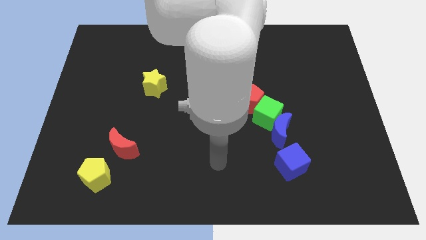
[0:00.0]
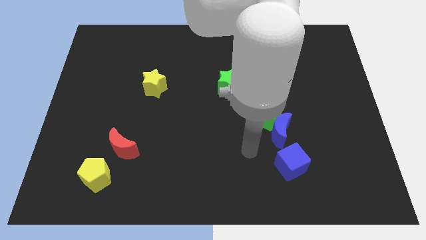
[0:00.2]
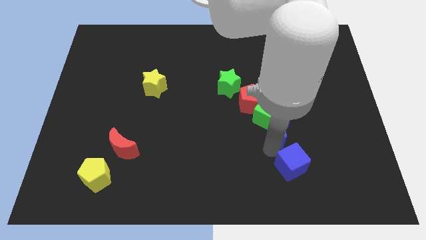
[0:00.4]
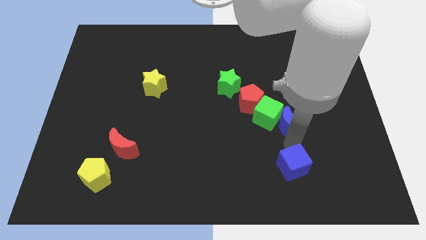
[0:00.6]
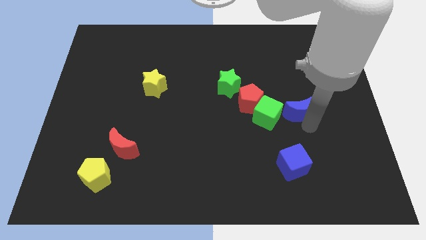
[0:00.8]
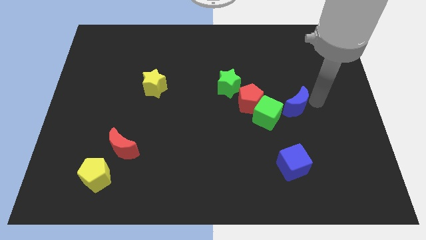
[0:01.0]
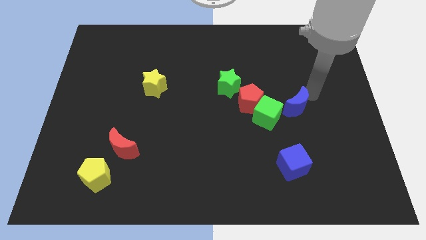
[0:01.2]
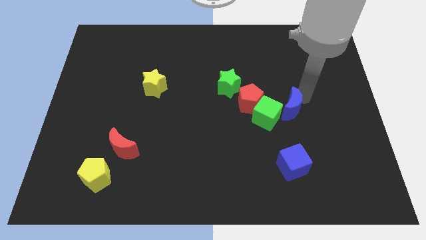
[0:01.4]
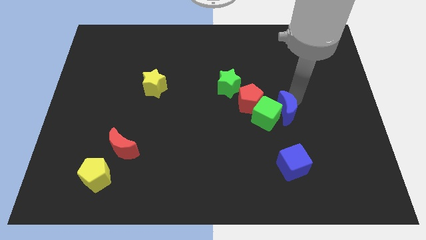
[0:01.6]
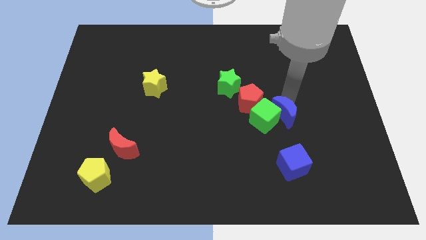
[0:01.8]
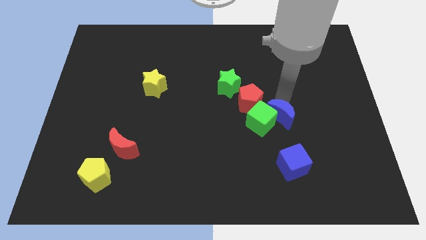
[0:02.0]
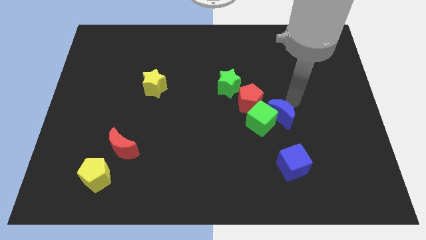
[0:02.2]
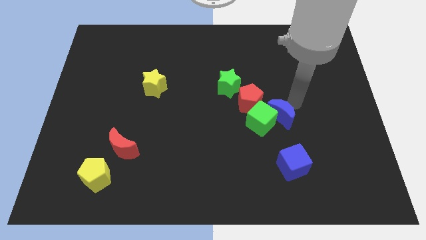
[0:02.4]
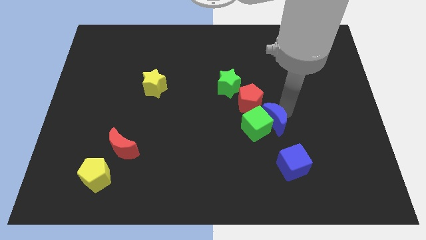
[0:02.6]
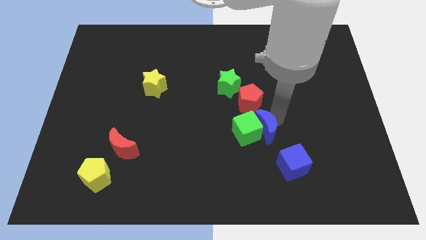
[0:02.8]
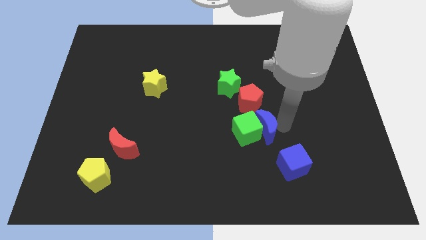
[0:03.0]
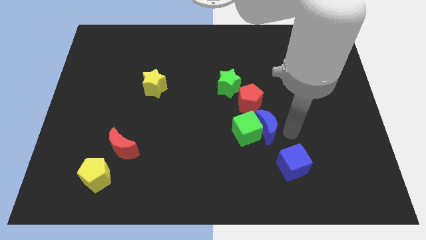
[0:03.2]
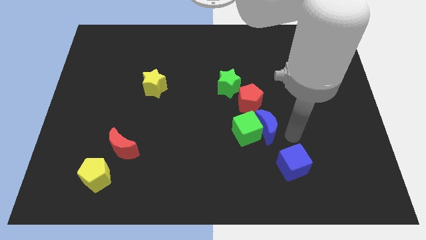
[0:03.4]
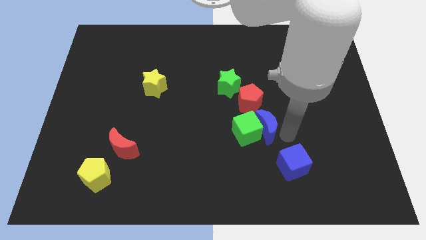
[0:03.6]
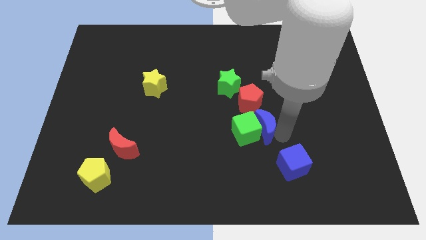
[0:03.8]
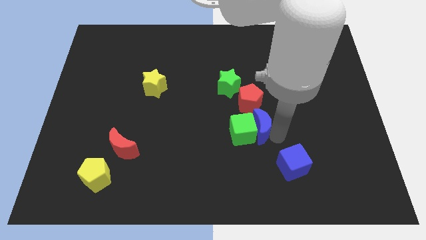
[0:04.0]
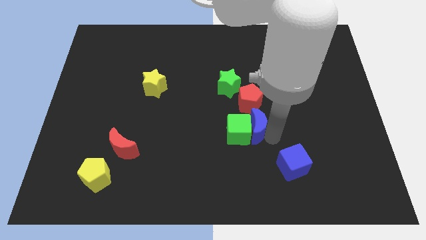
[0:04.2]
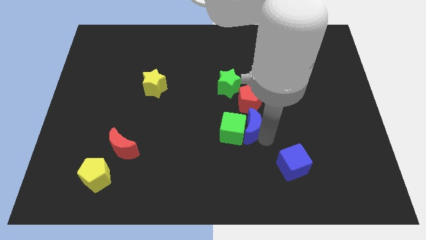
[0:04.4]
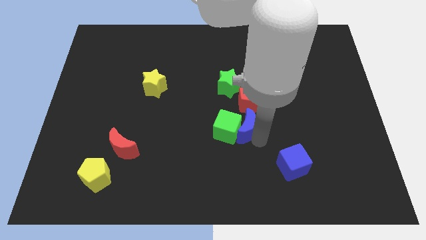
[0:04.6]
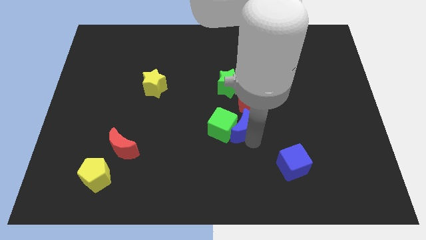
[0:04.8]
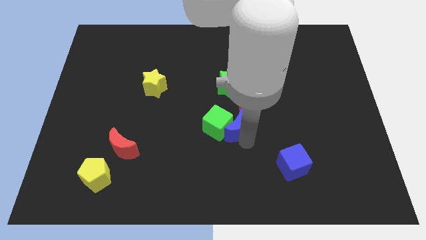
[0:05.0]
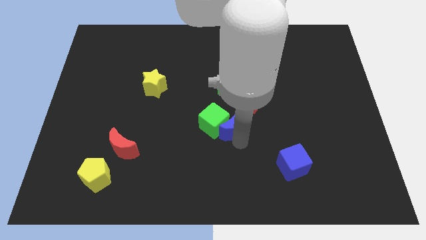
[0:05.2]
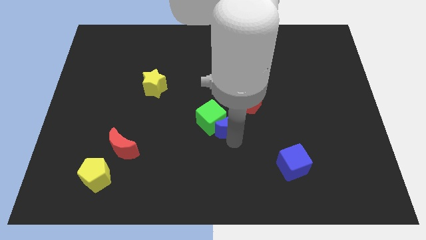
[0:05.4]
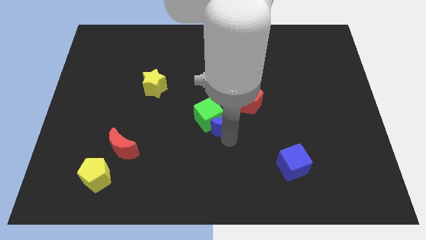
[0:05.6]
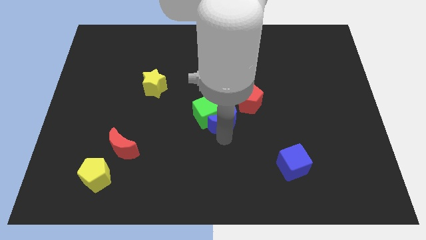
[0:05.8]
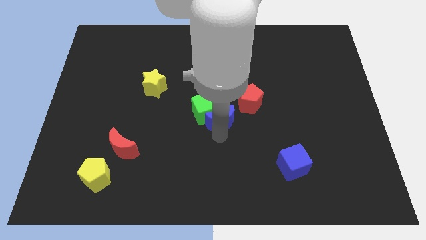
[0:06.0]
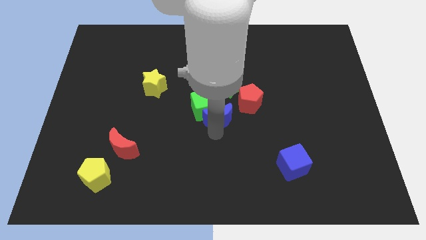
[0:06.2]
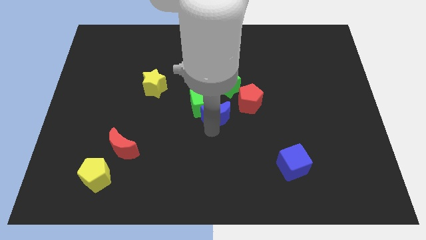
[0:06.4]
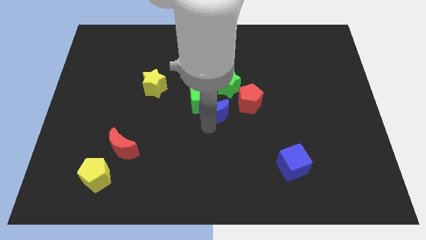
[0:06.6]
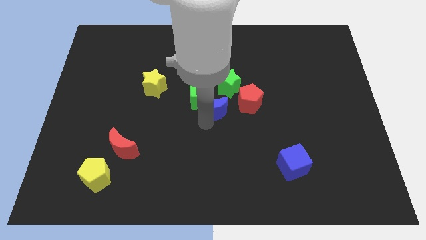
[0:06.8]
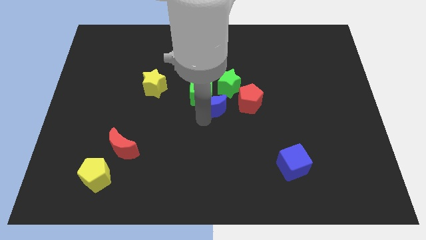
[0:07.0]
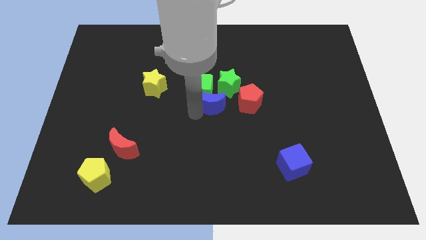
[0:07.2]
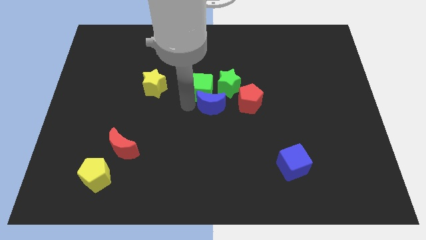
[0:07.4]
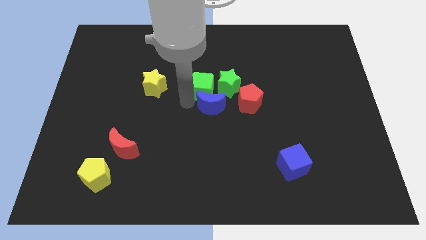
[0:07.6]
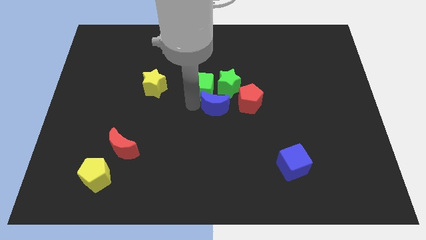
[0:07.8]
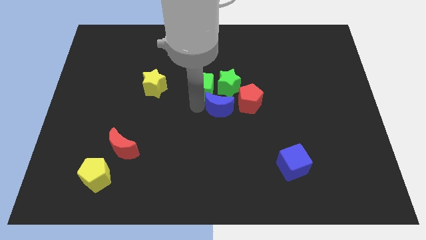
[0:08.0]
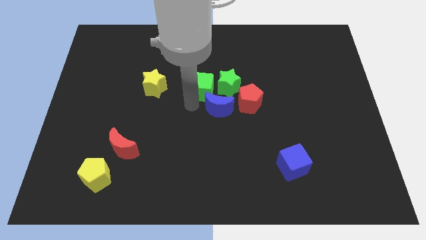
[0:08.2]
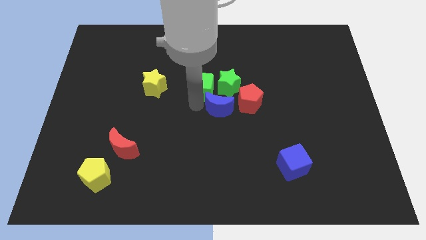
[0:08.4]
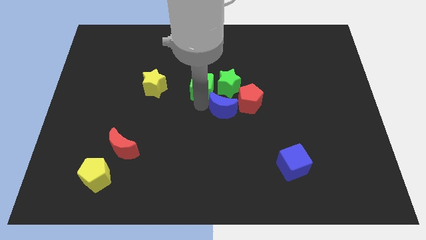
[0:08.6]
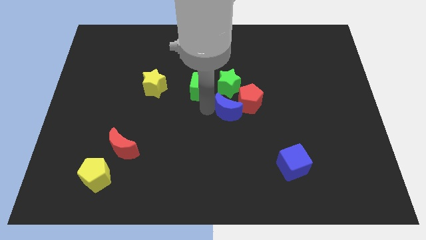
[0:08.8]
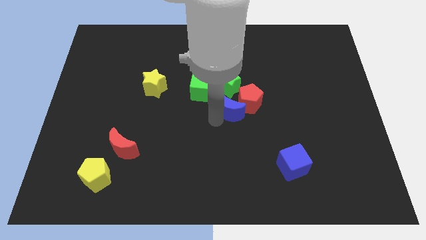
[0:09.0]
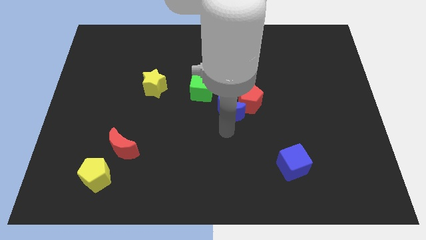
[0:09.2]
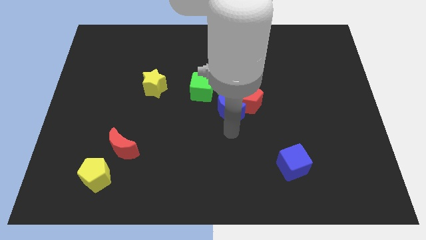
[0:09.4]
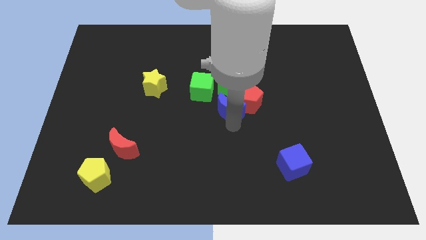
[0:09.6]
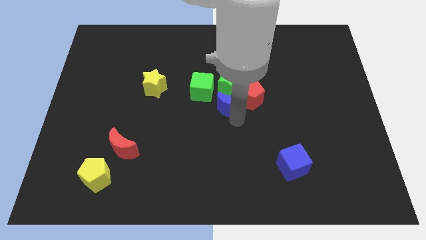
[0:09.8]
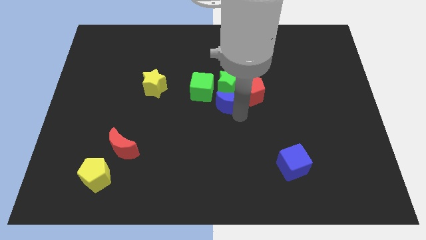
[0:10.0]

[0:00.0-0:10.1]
put the blue moon to the green star

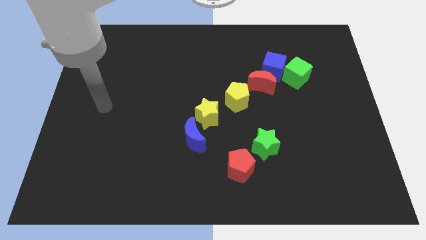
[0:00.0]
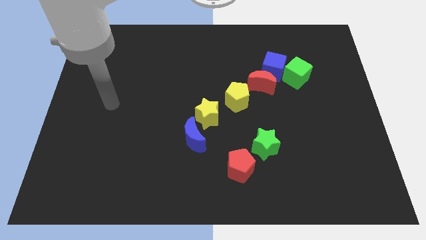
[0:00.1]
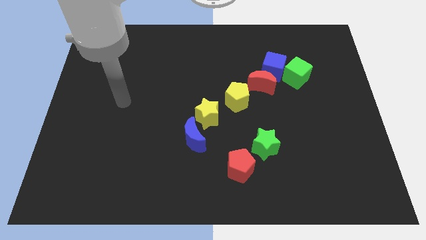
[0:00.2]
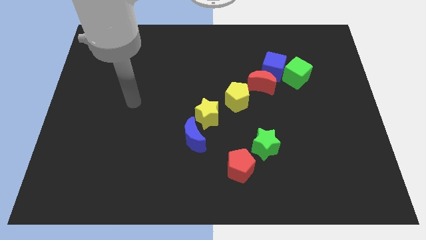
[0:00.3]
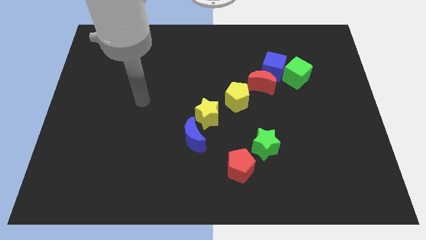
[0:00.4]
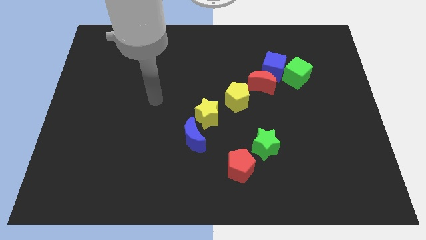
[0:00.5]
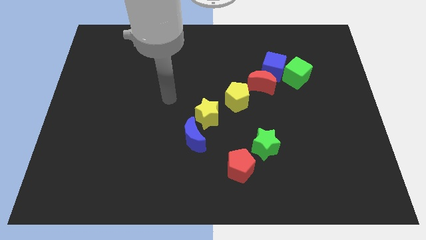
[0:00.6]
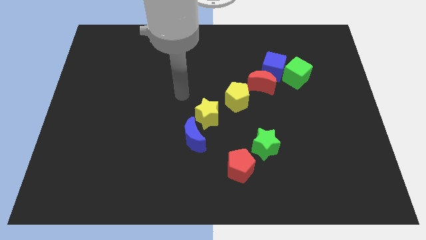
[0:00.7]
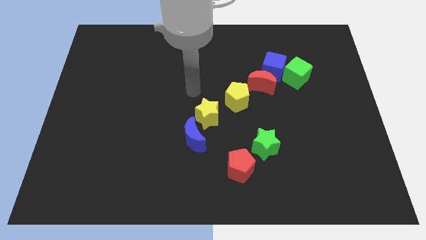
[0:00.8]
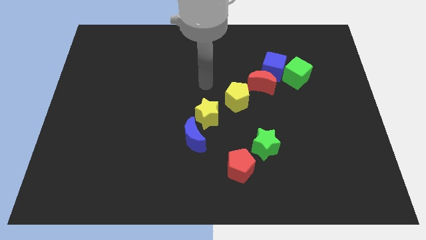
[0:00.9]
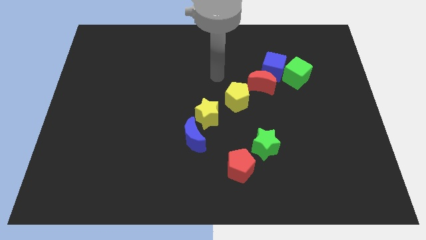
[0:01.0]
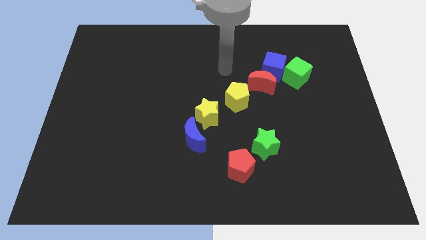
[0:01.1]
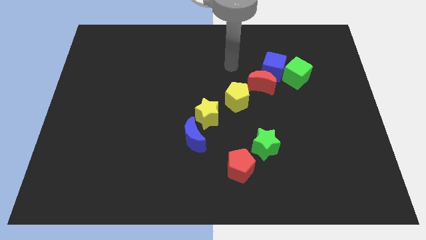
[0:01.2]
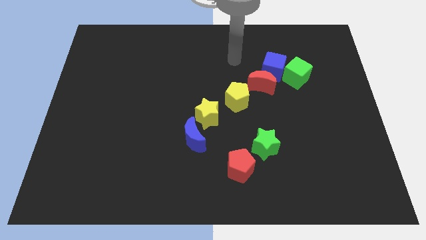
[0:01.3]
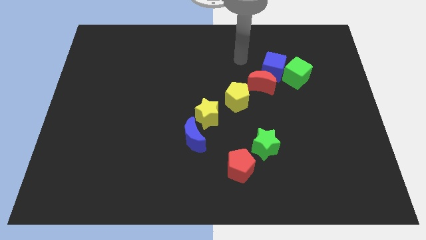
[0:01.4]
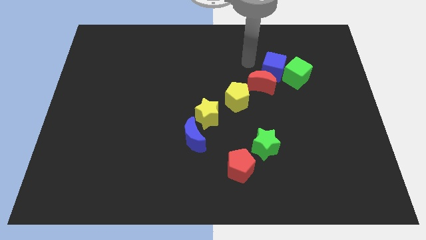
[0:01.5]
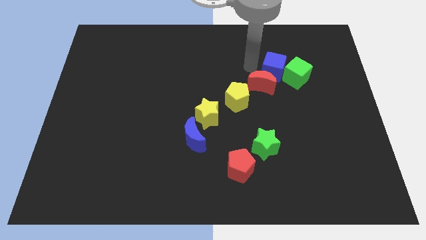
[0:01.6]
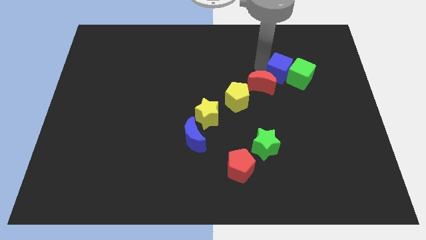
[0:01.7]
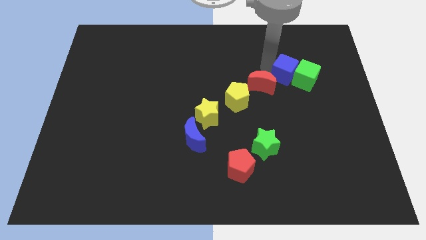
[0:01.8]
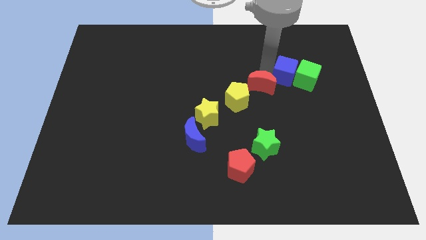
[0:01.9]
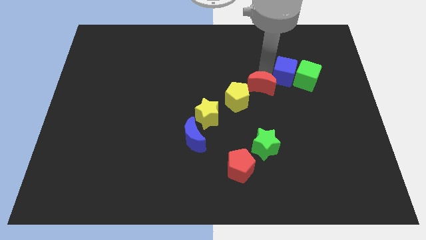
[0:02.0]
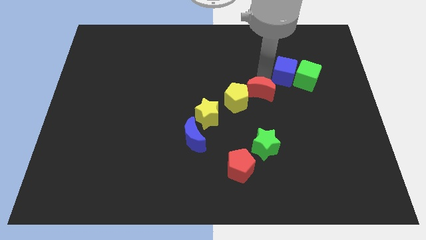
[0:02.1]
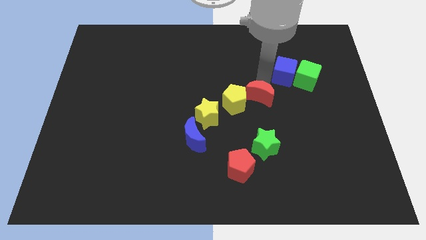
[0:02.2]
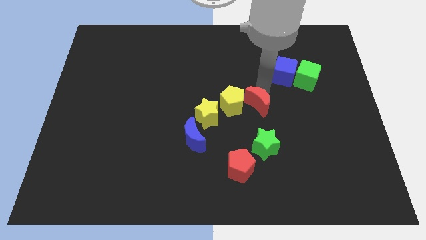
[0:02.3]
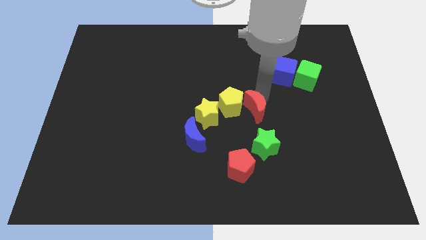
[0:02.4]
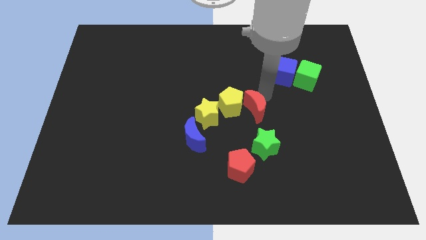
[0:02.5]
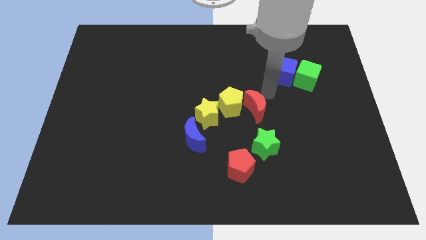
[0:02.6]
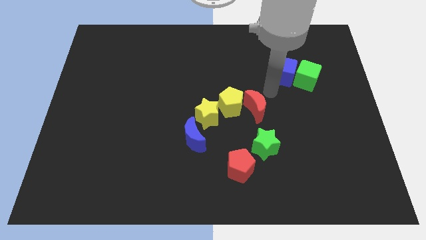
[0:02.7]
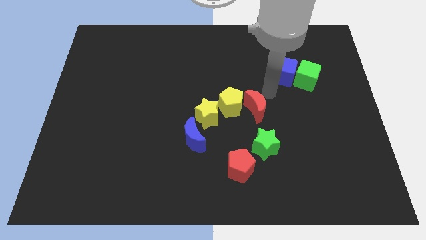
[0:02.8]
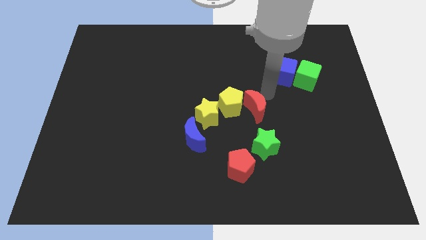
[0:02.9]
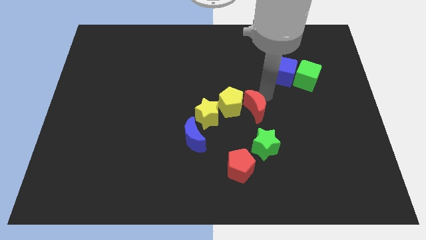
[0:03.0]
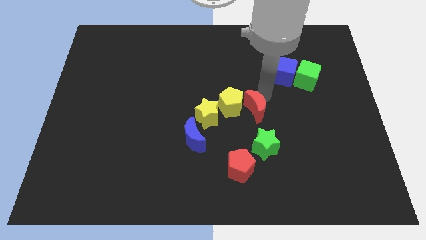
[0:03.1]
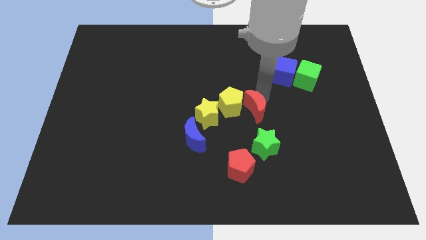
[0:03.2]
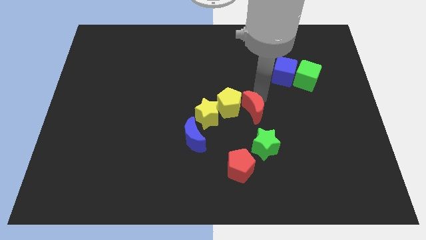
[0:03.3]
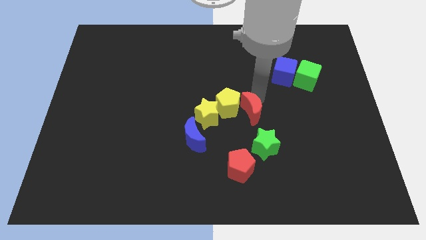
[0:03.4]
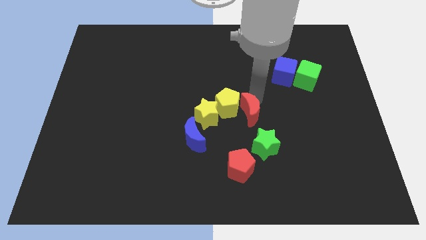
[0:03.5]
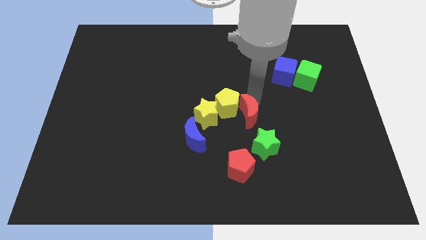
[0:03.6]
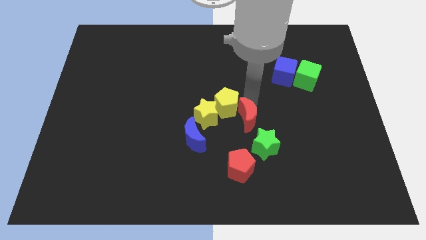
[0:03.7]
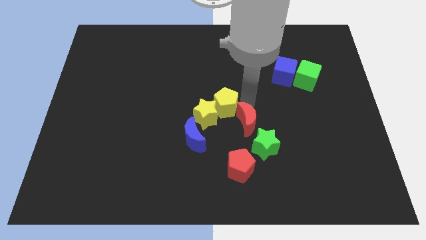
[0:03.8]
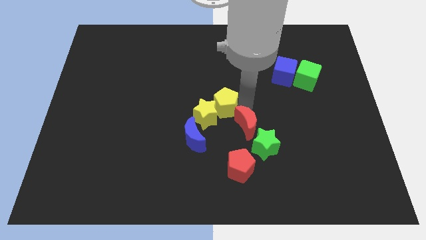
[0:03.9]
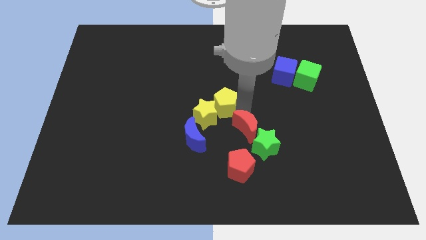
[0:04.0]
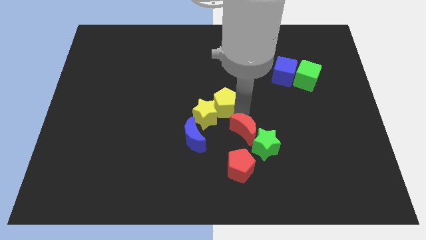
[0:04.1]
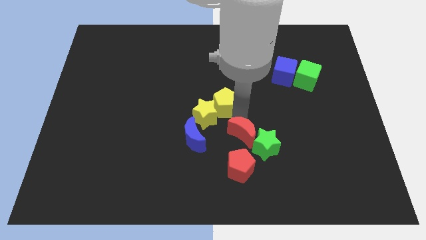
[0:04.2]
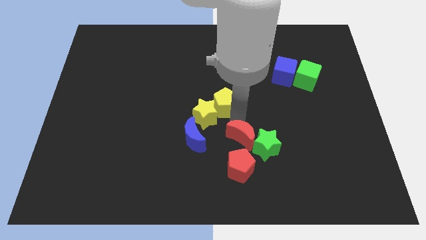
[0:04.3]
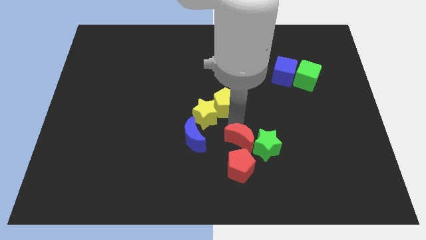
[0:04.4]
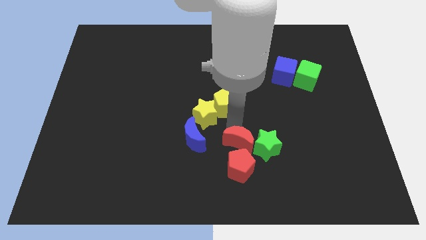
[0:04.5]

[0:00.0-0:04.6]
put the red moon close to the red pentagon
